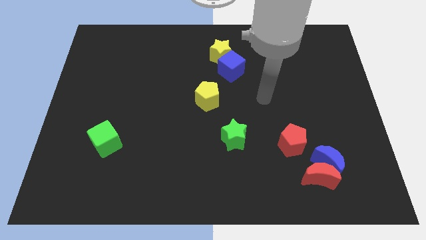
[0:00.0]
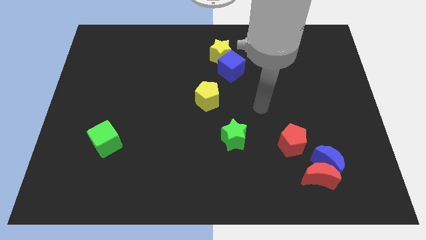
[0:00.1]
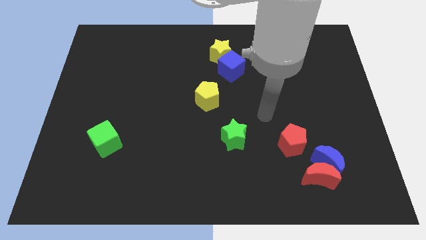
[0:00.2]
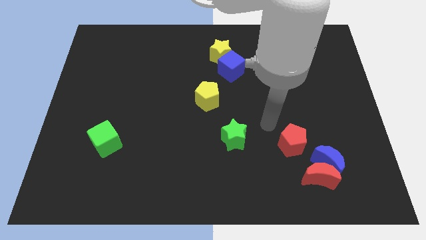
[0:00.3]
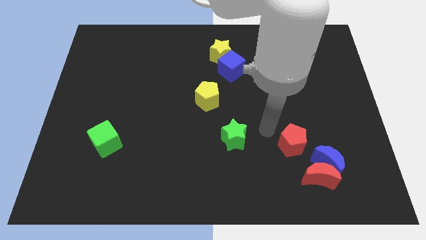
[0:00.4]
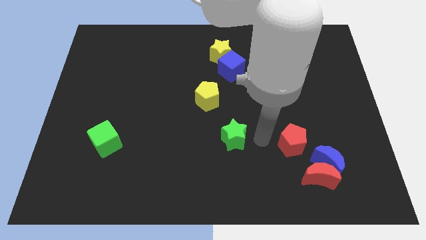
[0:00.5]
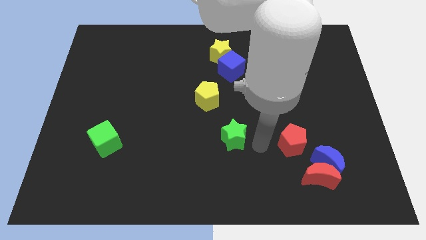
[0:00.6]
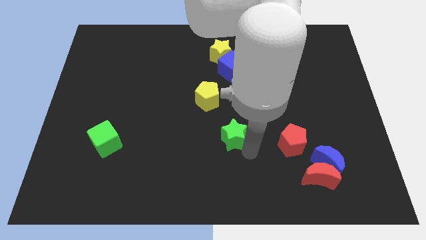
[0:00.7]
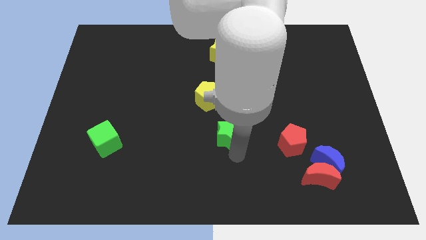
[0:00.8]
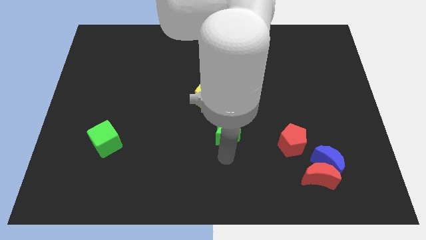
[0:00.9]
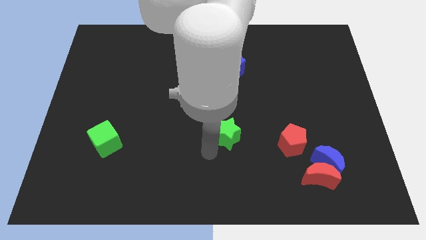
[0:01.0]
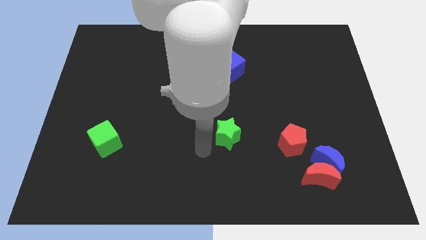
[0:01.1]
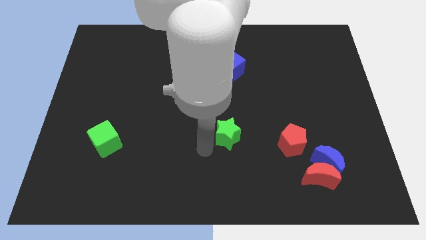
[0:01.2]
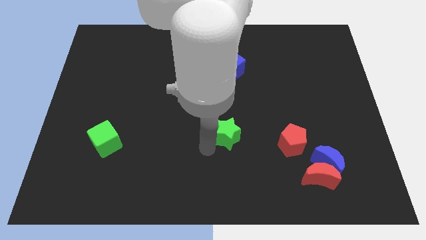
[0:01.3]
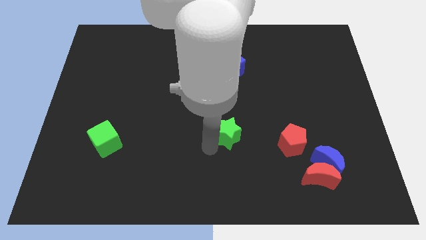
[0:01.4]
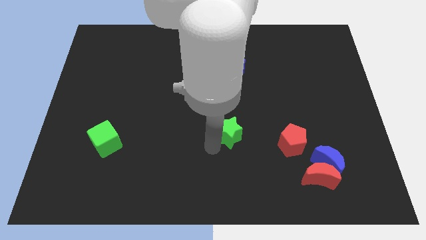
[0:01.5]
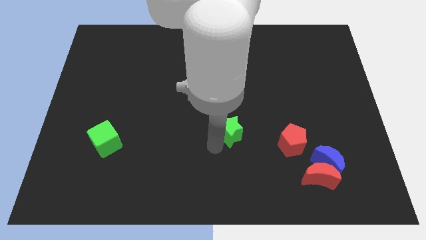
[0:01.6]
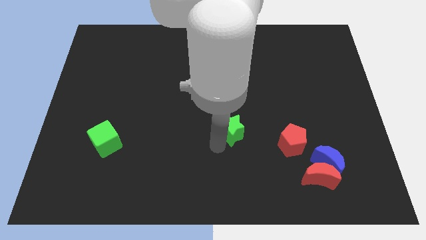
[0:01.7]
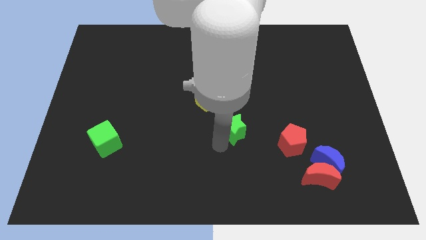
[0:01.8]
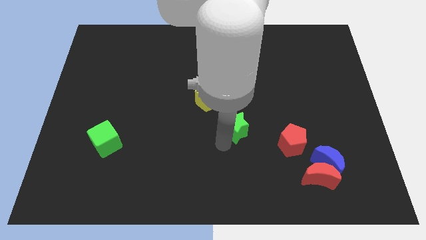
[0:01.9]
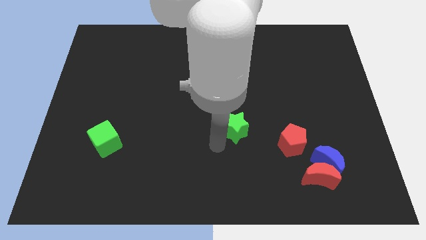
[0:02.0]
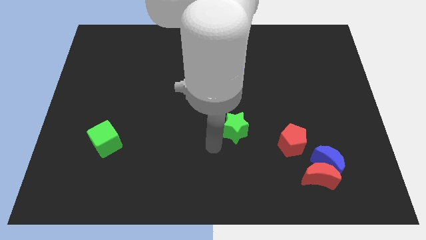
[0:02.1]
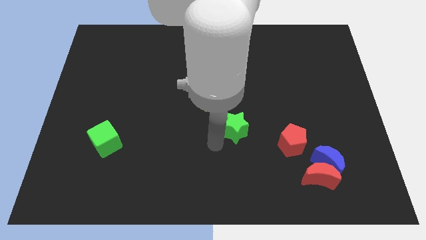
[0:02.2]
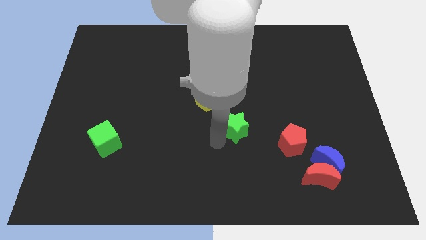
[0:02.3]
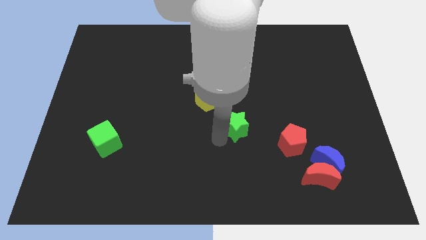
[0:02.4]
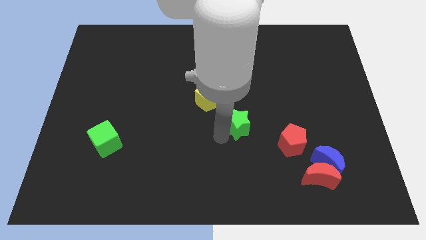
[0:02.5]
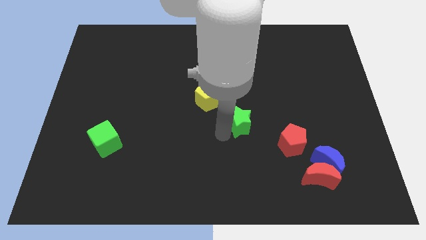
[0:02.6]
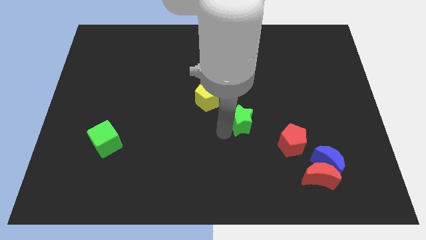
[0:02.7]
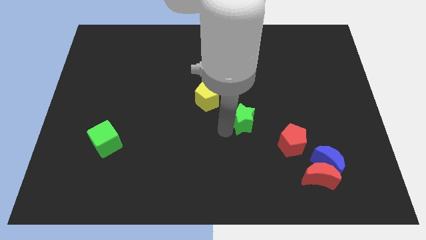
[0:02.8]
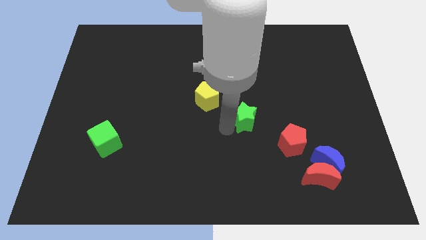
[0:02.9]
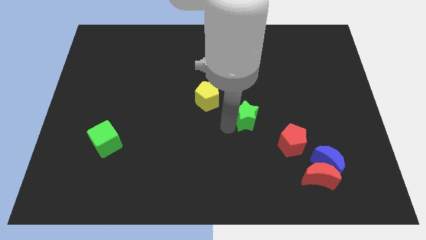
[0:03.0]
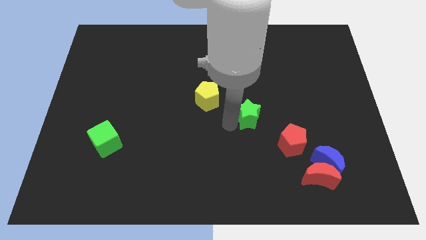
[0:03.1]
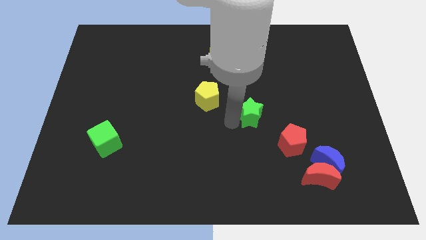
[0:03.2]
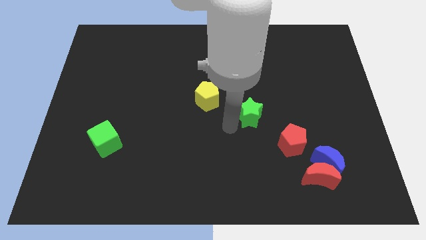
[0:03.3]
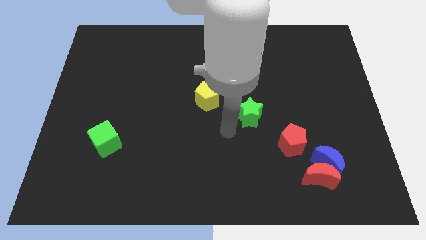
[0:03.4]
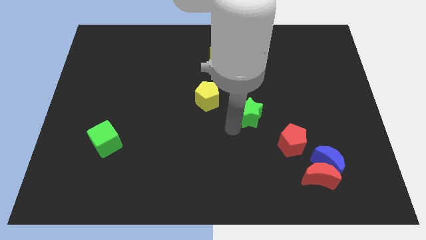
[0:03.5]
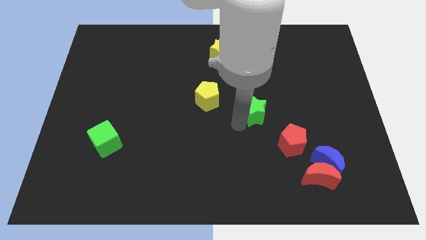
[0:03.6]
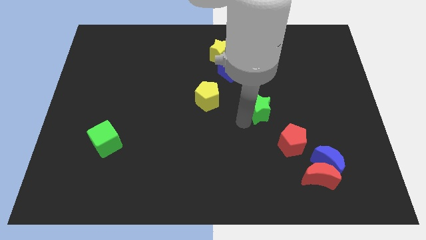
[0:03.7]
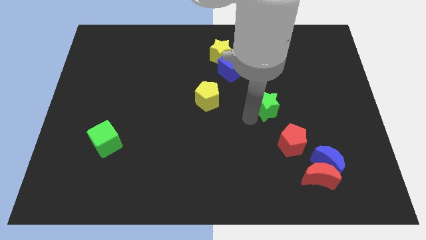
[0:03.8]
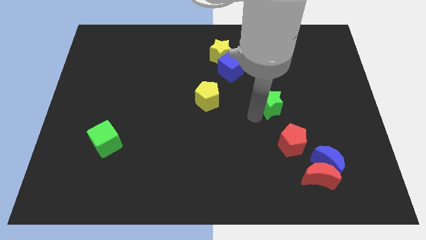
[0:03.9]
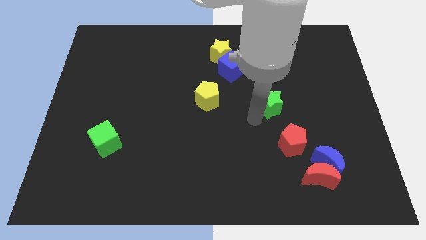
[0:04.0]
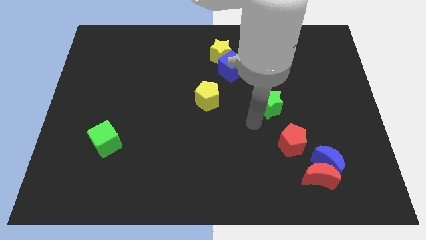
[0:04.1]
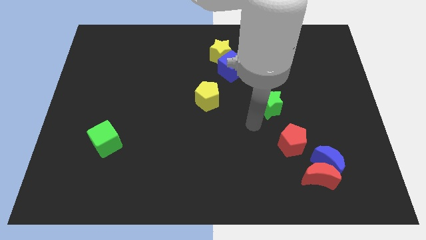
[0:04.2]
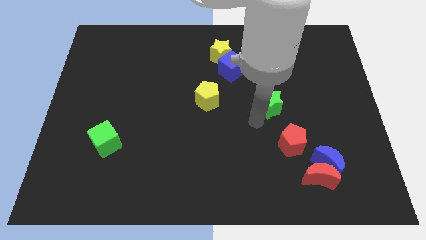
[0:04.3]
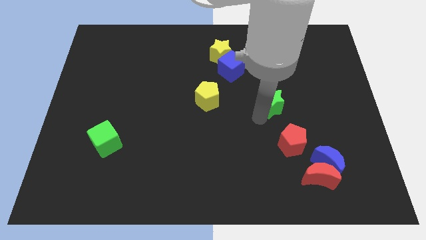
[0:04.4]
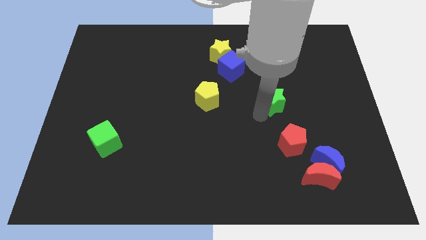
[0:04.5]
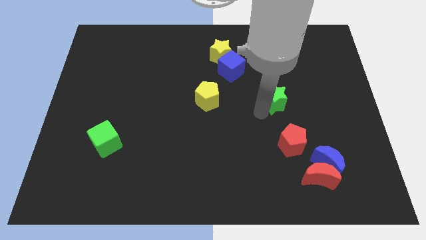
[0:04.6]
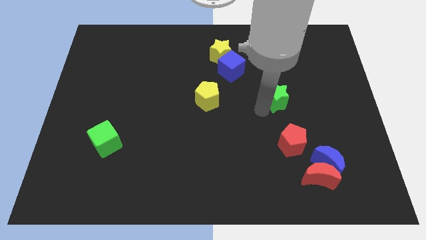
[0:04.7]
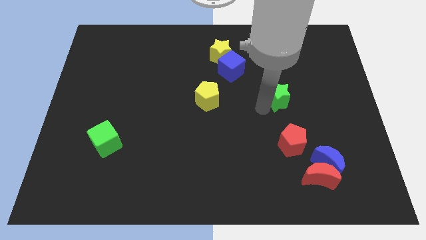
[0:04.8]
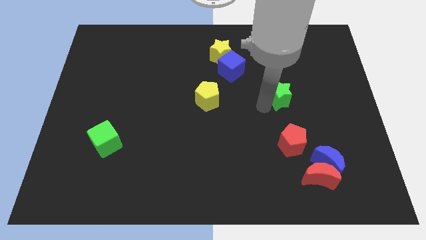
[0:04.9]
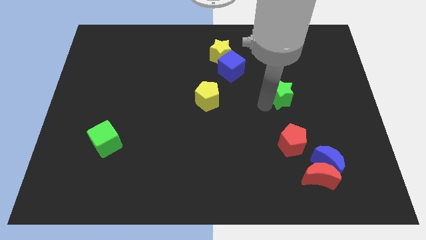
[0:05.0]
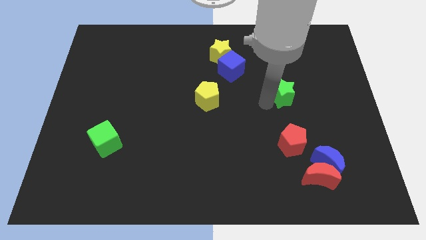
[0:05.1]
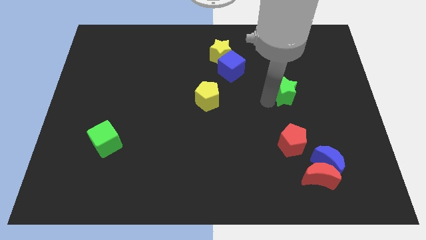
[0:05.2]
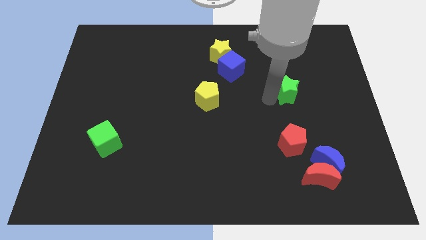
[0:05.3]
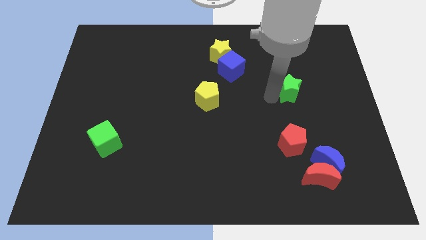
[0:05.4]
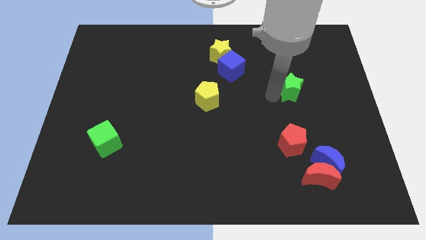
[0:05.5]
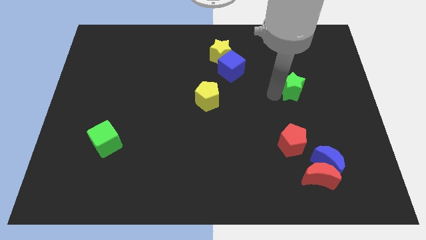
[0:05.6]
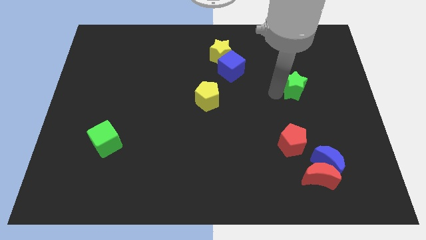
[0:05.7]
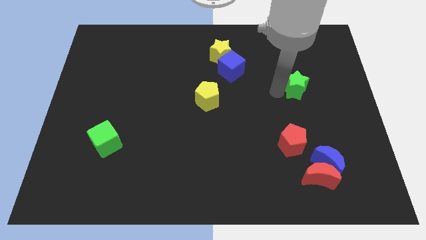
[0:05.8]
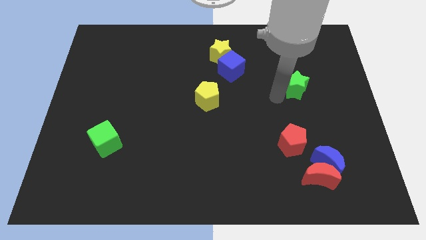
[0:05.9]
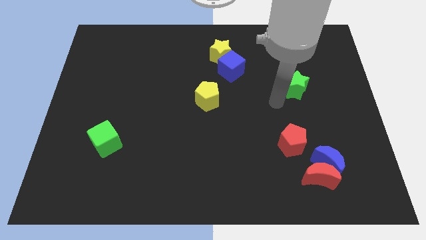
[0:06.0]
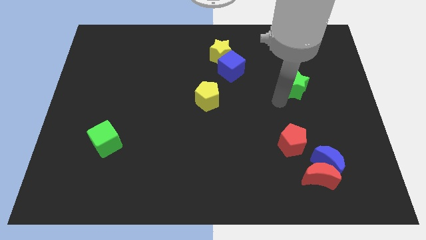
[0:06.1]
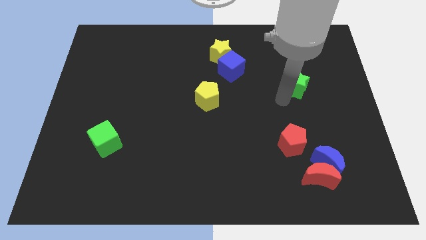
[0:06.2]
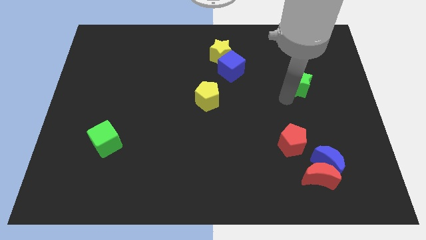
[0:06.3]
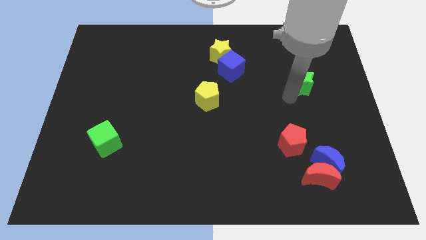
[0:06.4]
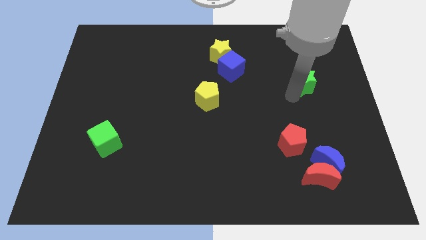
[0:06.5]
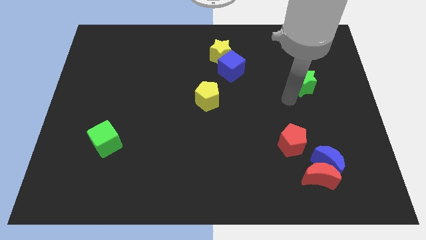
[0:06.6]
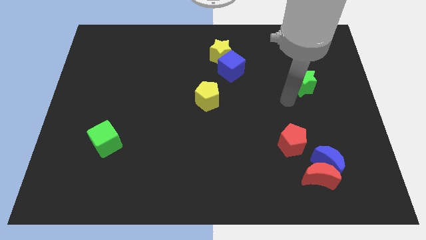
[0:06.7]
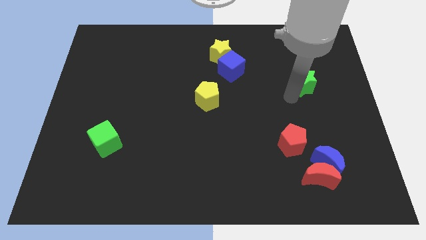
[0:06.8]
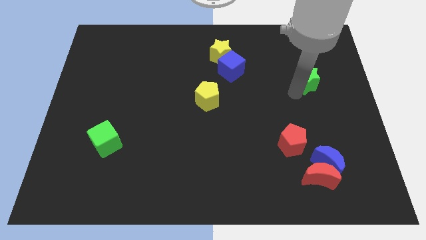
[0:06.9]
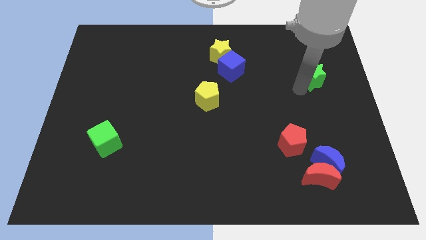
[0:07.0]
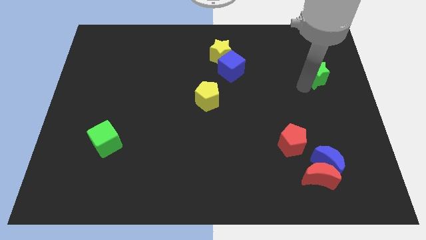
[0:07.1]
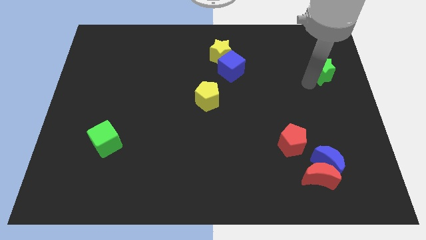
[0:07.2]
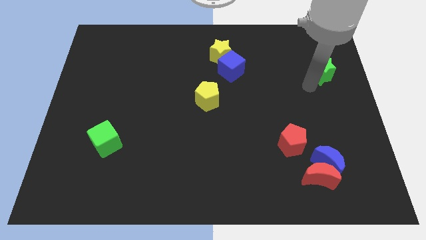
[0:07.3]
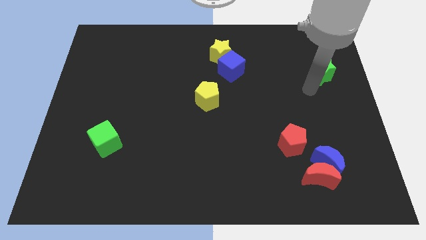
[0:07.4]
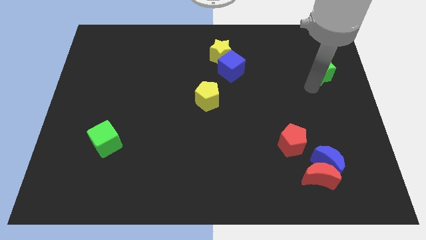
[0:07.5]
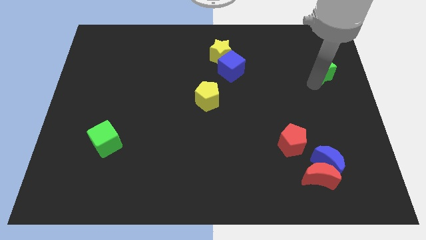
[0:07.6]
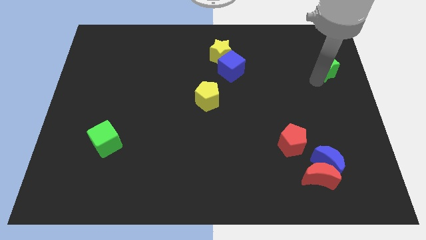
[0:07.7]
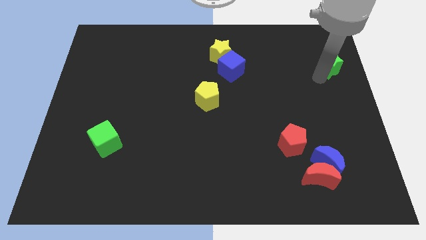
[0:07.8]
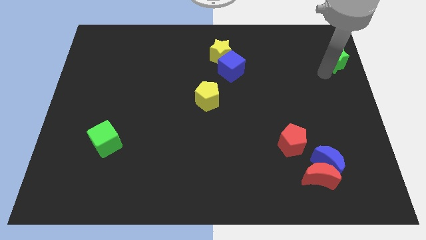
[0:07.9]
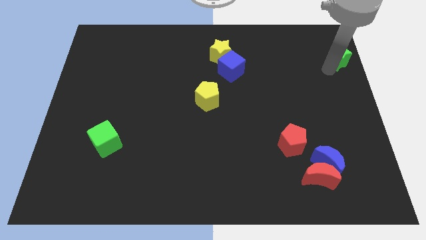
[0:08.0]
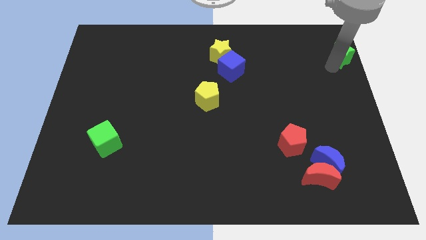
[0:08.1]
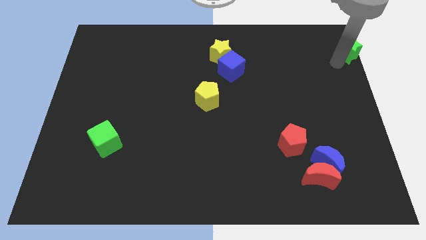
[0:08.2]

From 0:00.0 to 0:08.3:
put the green star to the upper right corner
